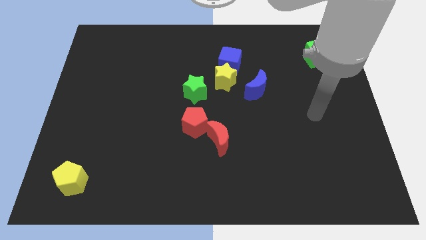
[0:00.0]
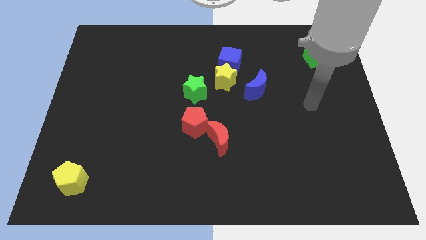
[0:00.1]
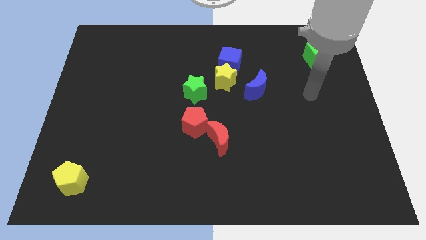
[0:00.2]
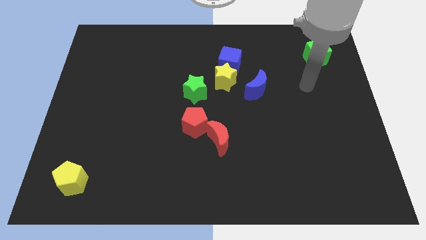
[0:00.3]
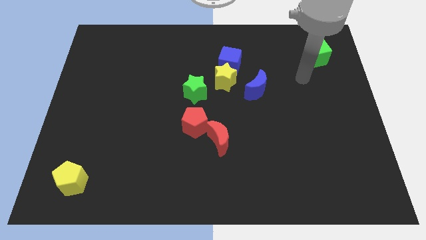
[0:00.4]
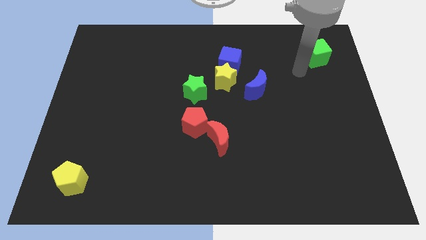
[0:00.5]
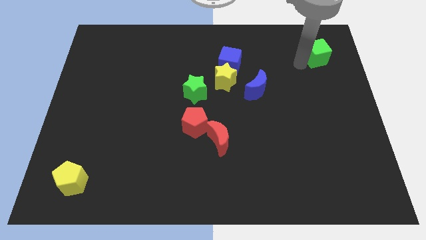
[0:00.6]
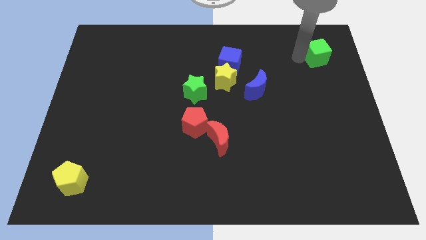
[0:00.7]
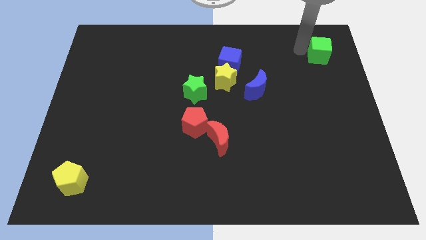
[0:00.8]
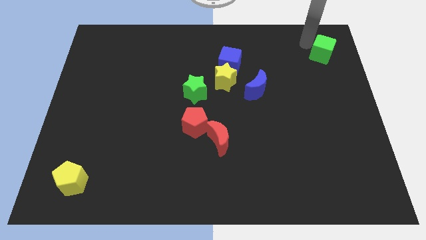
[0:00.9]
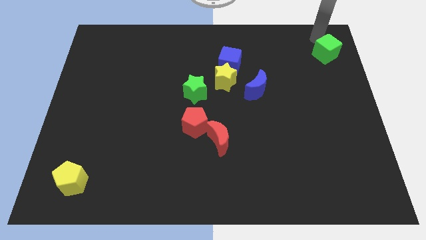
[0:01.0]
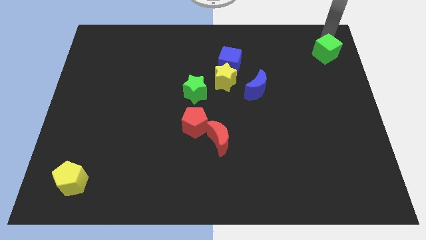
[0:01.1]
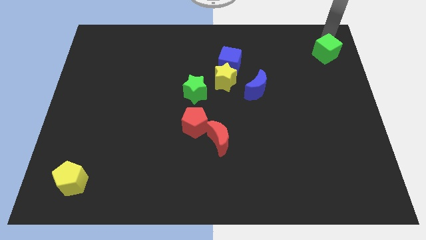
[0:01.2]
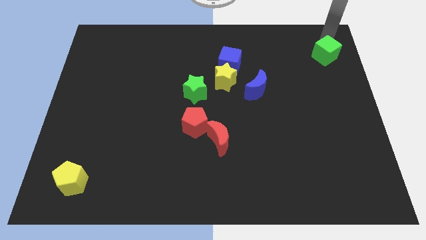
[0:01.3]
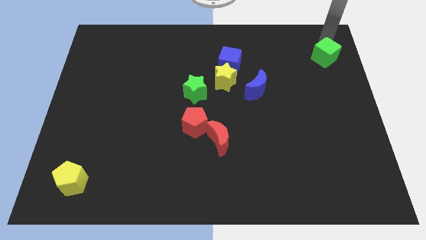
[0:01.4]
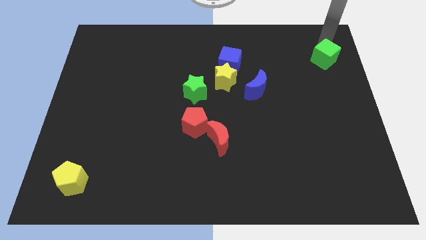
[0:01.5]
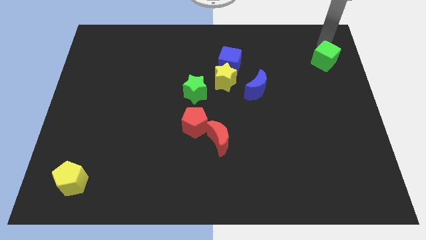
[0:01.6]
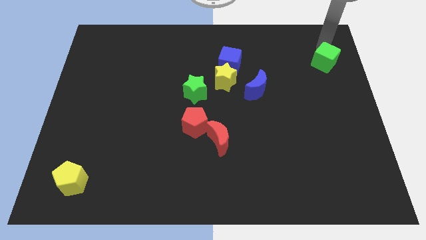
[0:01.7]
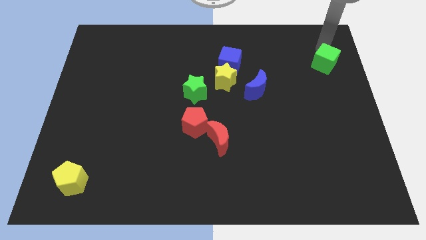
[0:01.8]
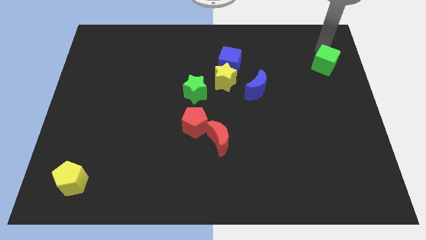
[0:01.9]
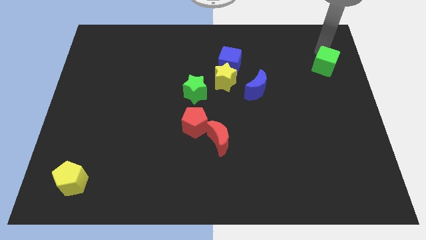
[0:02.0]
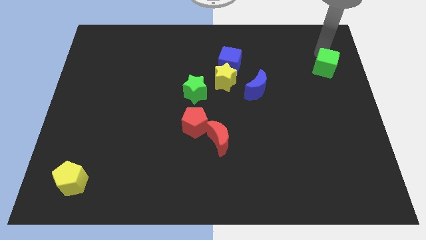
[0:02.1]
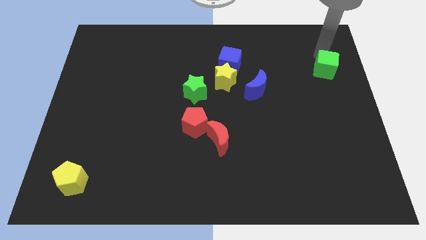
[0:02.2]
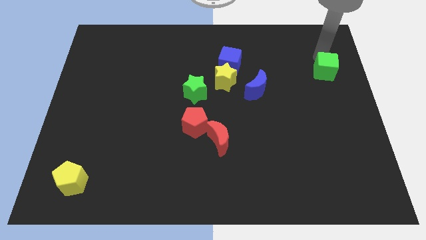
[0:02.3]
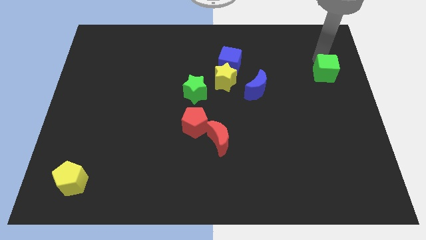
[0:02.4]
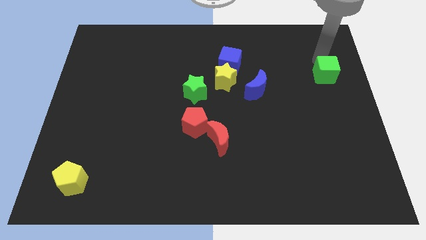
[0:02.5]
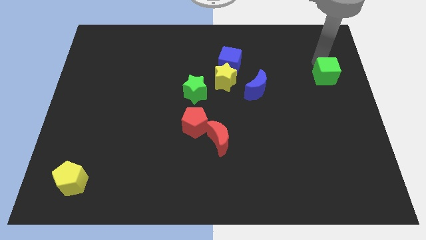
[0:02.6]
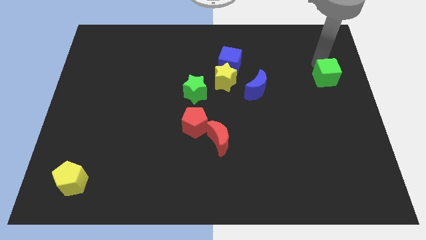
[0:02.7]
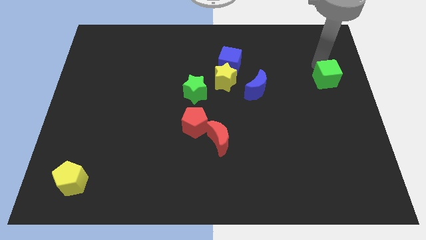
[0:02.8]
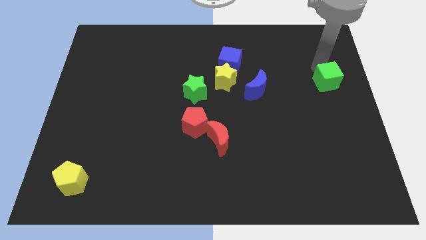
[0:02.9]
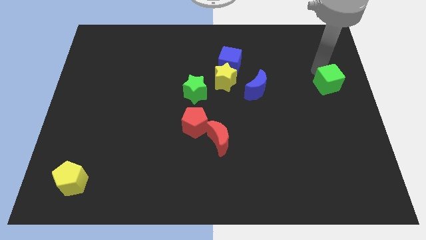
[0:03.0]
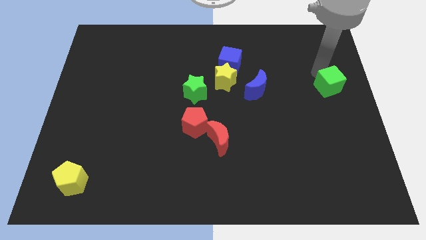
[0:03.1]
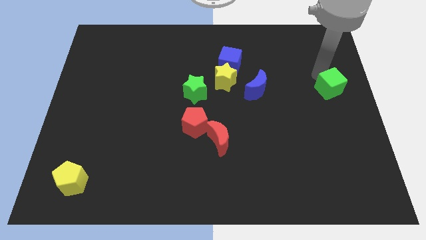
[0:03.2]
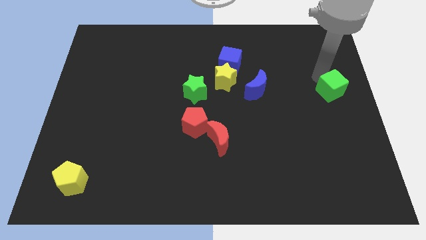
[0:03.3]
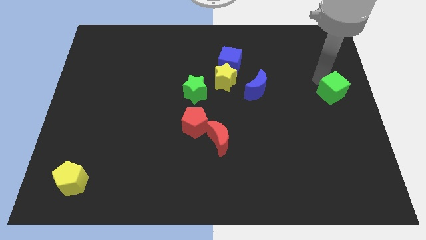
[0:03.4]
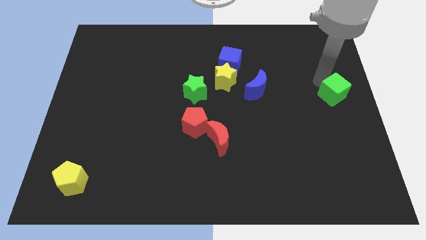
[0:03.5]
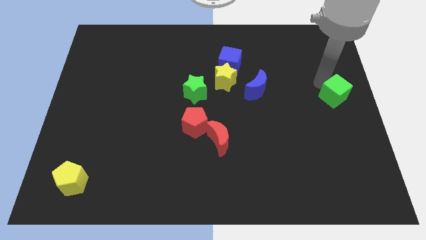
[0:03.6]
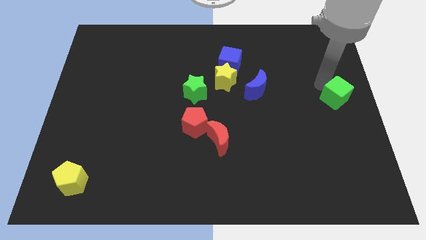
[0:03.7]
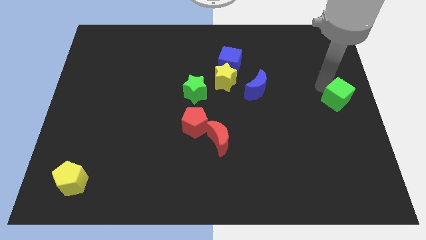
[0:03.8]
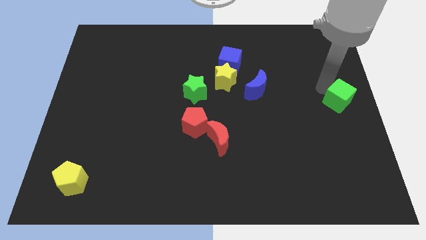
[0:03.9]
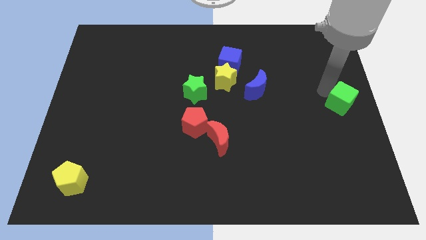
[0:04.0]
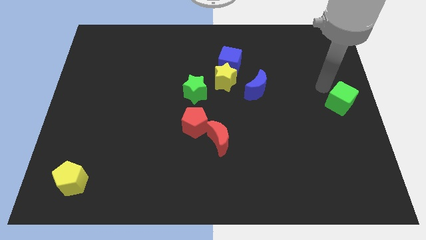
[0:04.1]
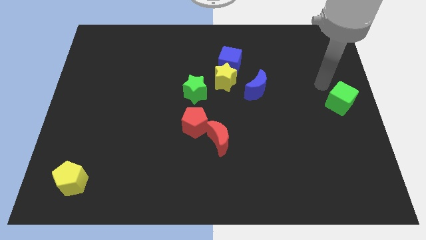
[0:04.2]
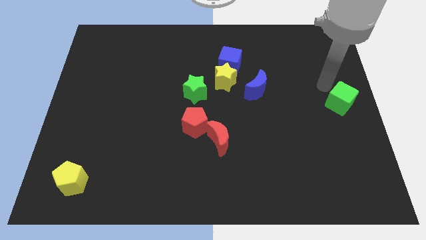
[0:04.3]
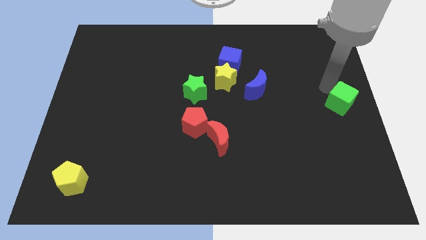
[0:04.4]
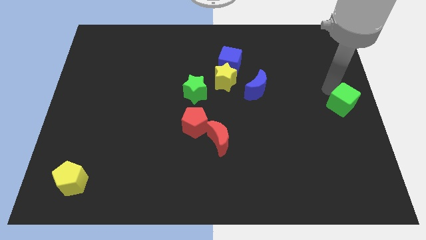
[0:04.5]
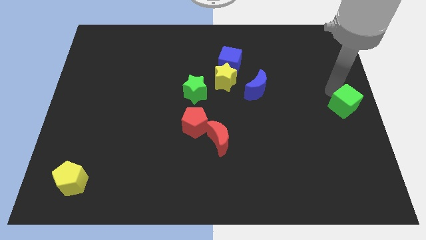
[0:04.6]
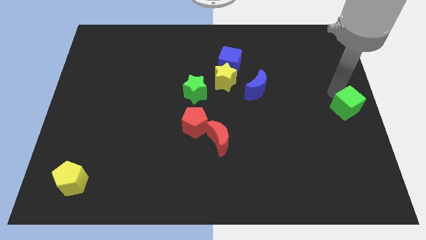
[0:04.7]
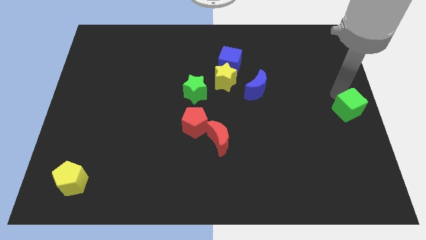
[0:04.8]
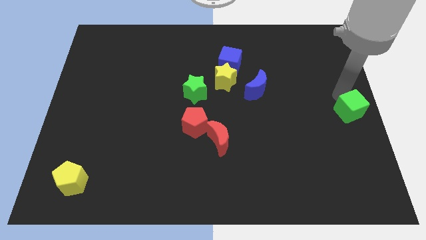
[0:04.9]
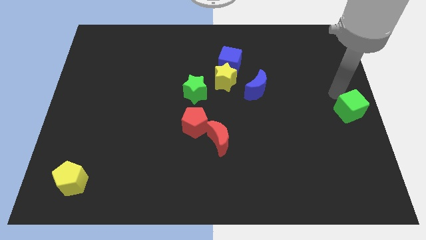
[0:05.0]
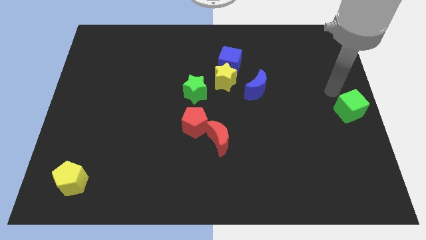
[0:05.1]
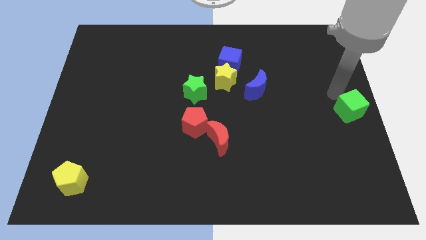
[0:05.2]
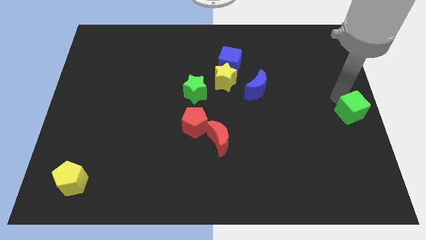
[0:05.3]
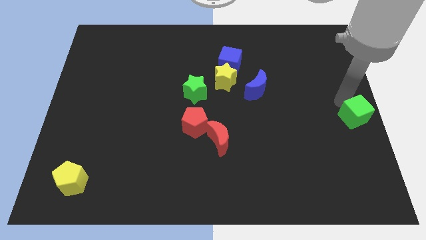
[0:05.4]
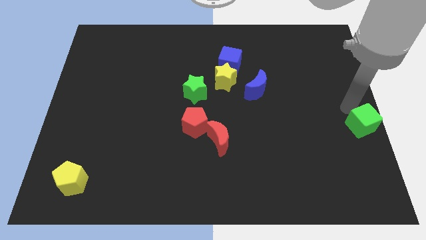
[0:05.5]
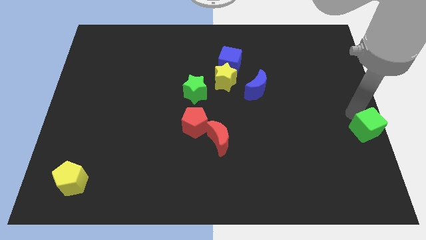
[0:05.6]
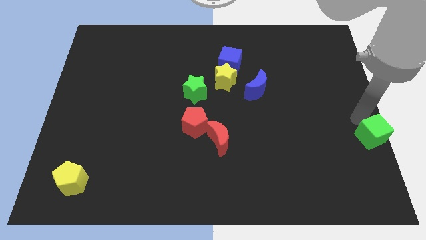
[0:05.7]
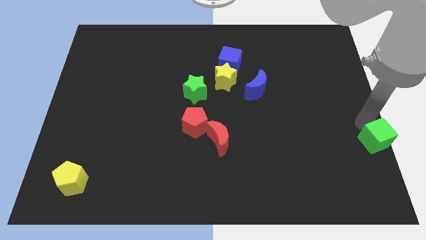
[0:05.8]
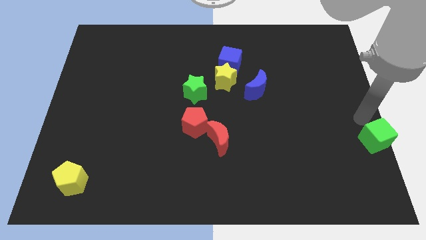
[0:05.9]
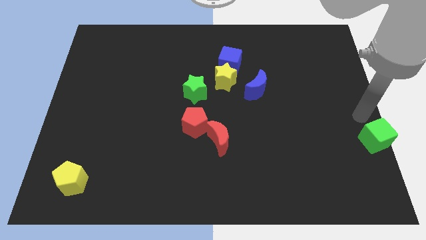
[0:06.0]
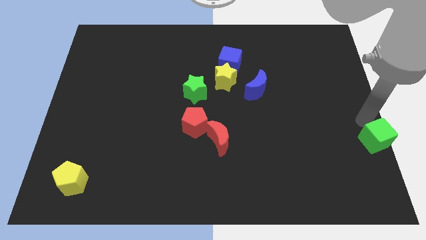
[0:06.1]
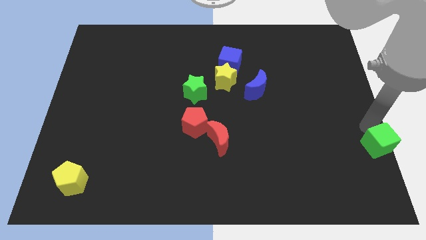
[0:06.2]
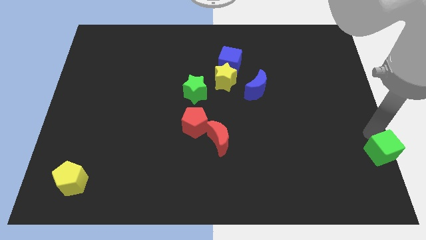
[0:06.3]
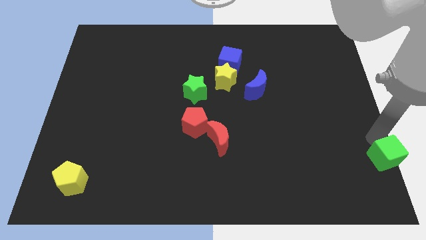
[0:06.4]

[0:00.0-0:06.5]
push the green cube to the bottom right of the board
